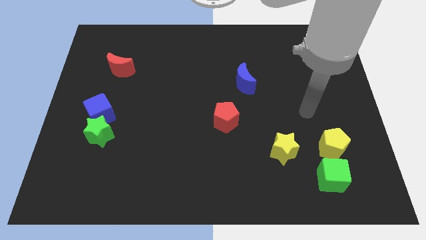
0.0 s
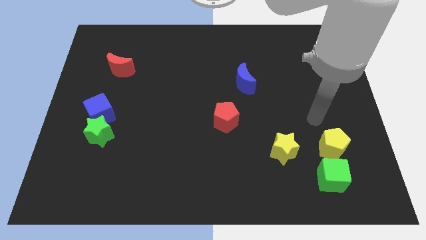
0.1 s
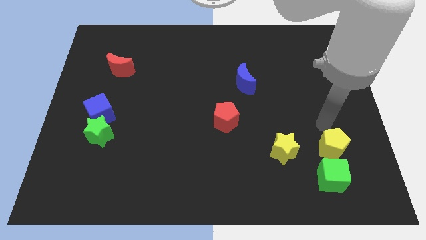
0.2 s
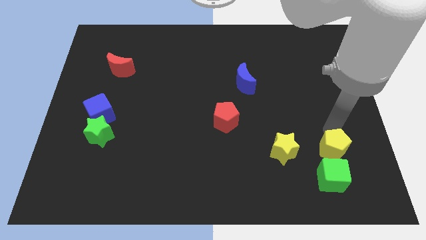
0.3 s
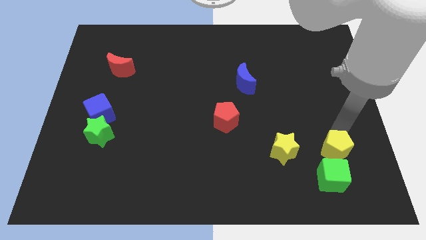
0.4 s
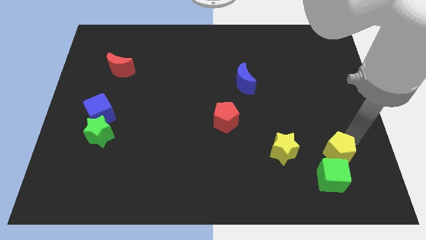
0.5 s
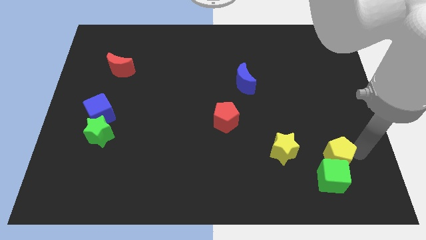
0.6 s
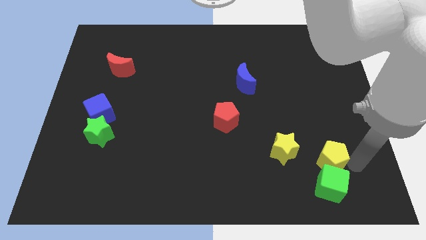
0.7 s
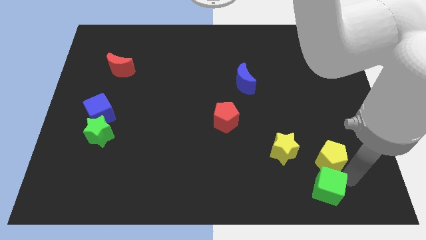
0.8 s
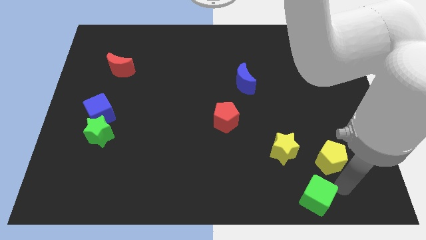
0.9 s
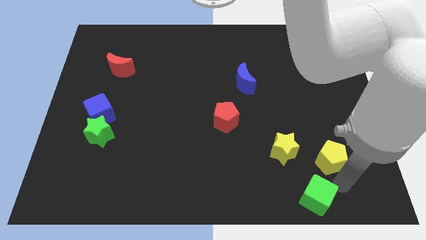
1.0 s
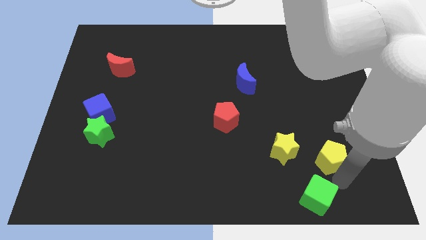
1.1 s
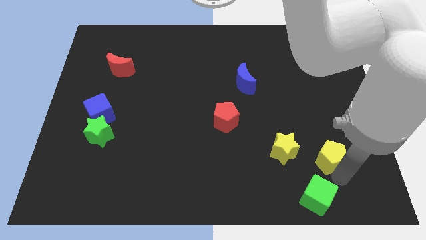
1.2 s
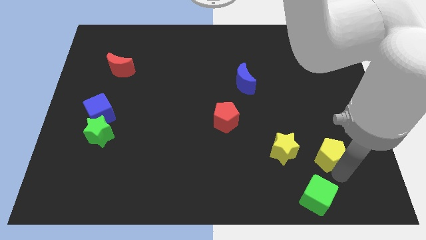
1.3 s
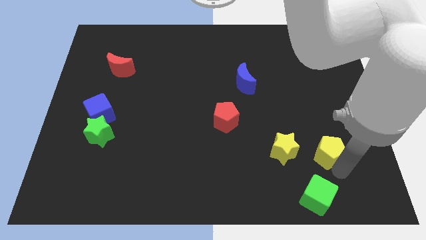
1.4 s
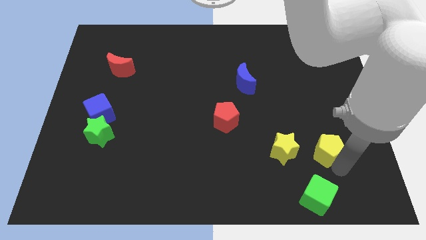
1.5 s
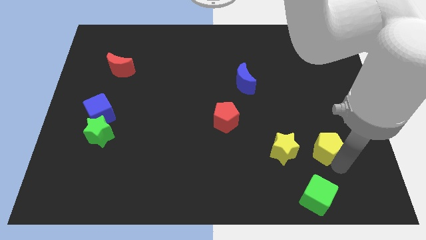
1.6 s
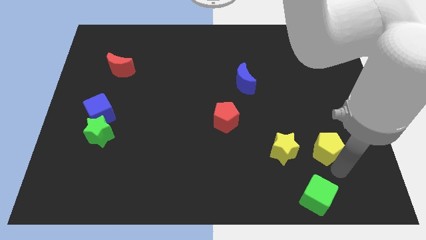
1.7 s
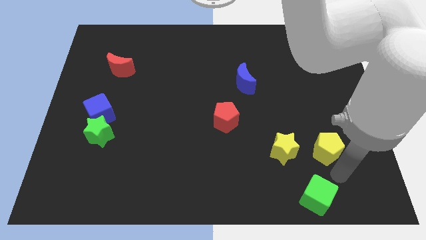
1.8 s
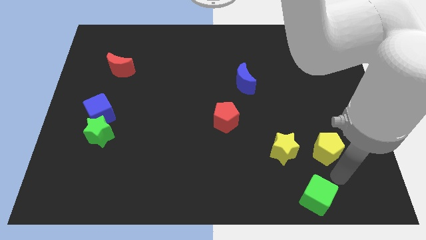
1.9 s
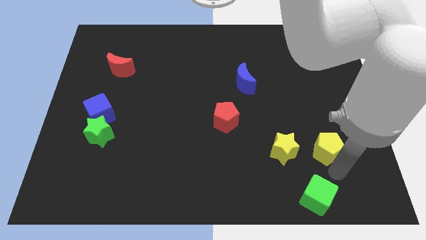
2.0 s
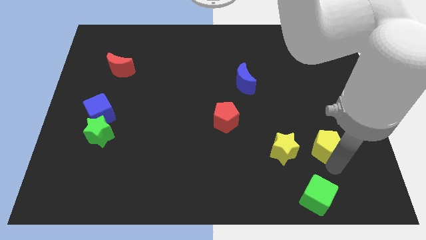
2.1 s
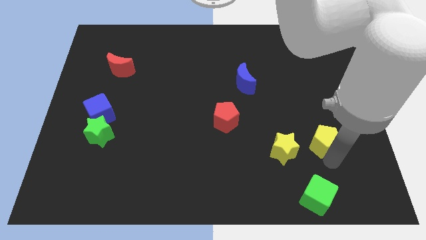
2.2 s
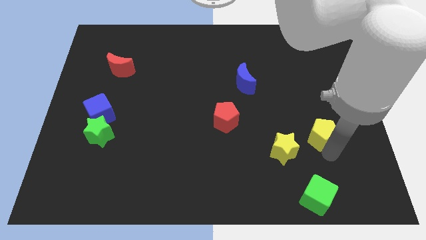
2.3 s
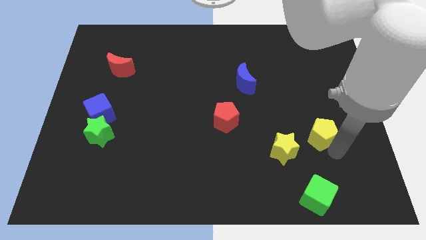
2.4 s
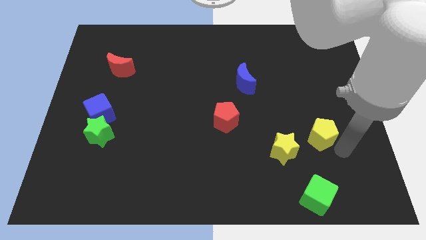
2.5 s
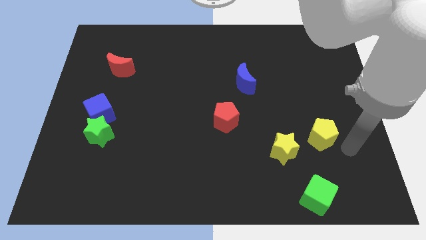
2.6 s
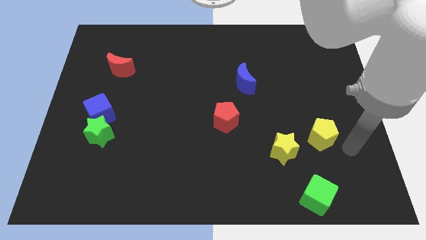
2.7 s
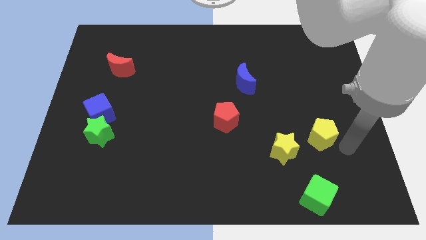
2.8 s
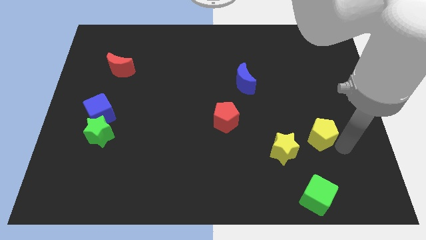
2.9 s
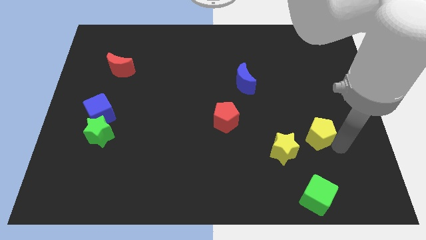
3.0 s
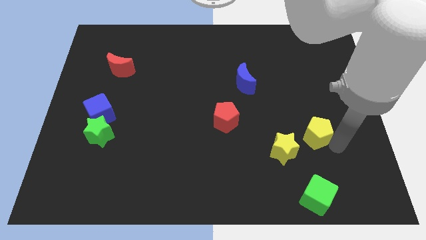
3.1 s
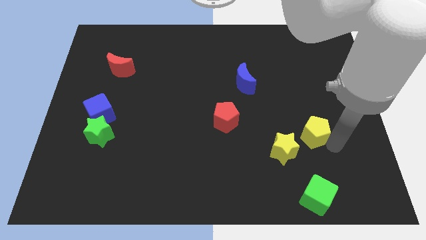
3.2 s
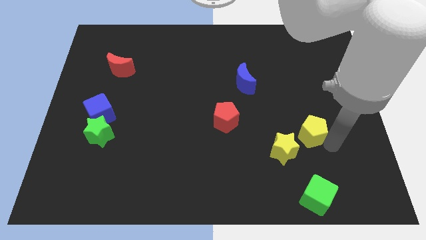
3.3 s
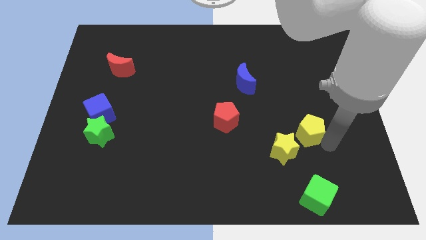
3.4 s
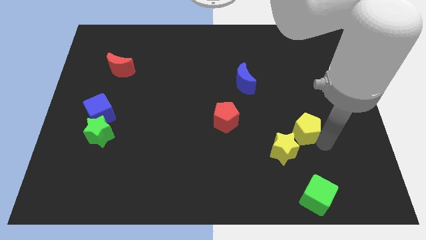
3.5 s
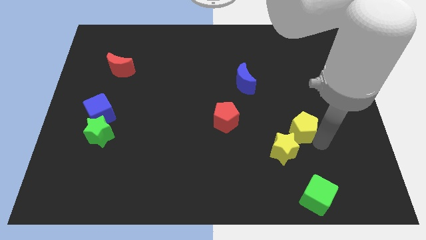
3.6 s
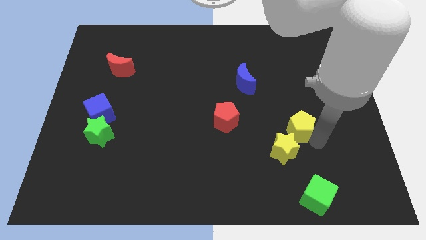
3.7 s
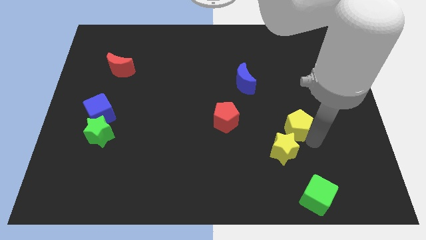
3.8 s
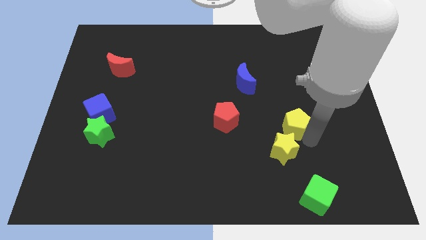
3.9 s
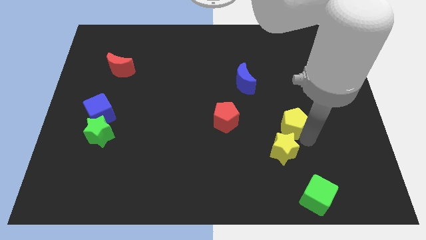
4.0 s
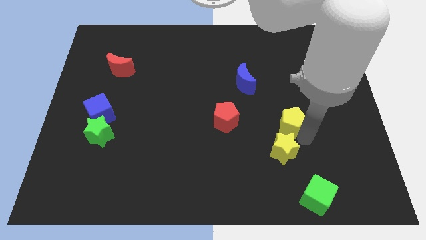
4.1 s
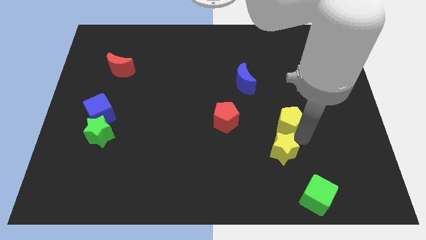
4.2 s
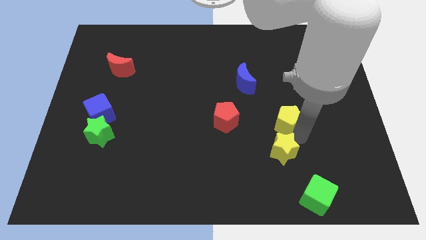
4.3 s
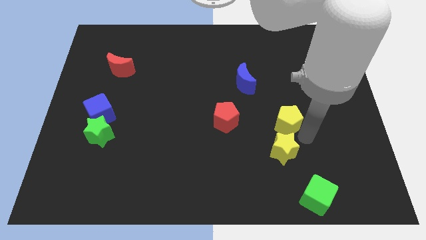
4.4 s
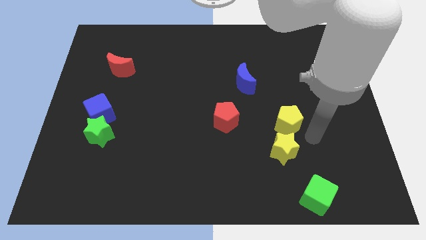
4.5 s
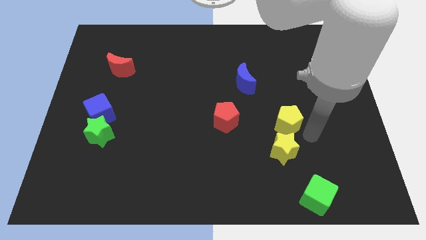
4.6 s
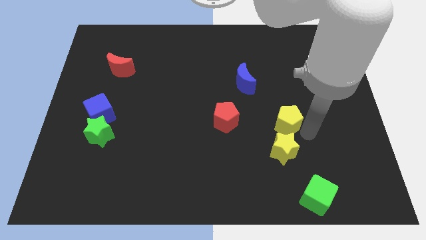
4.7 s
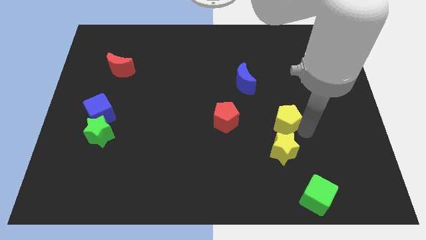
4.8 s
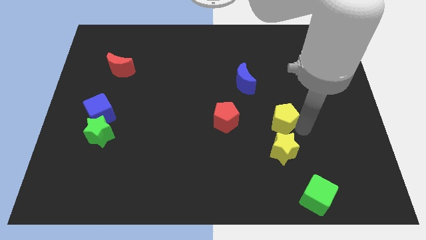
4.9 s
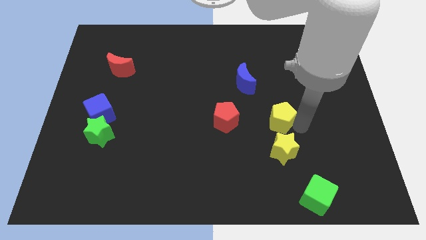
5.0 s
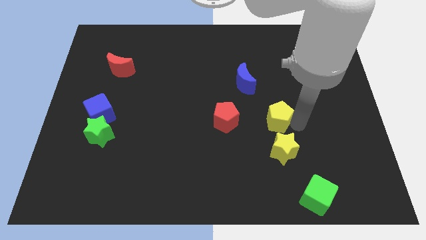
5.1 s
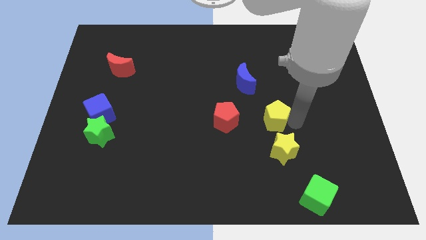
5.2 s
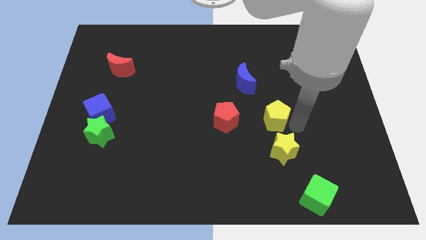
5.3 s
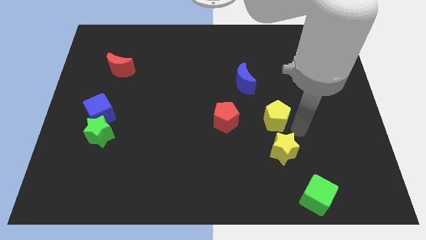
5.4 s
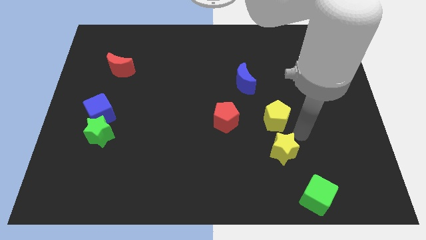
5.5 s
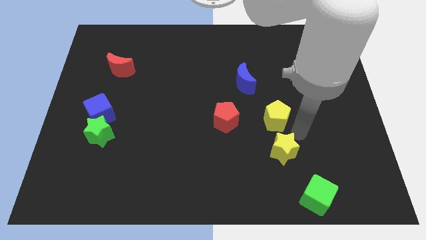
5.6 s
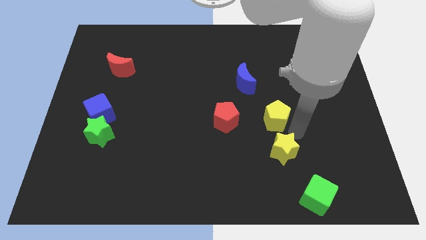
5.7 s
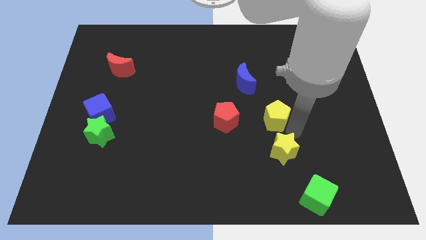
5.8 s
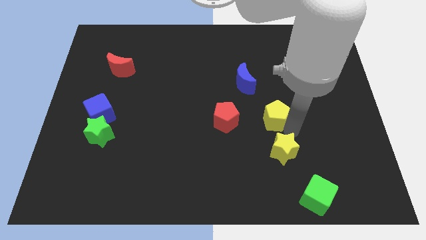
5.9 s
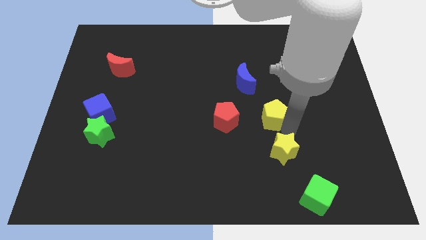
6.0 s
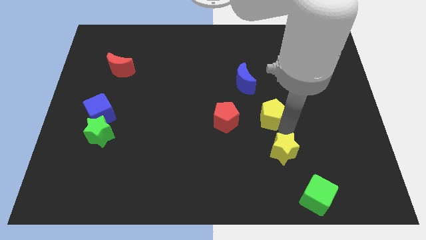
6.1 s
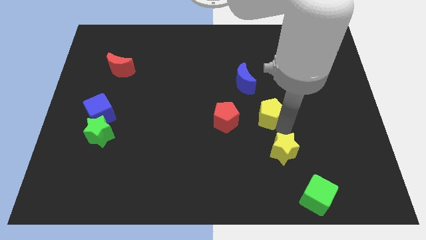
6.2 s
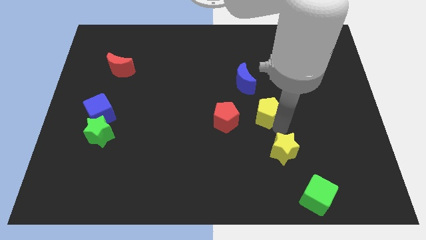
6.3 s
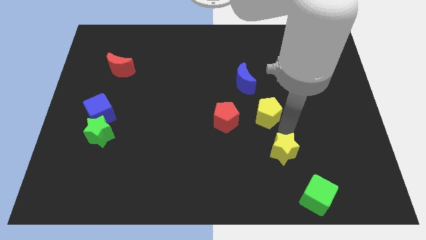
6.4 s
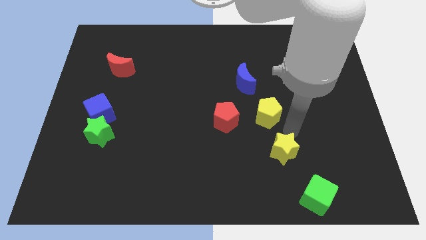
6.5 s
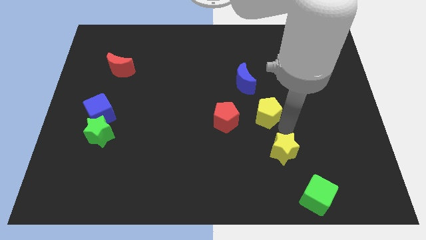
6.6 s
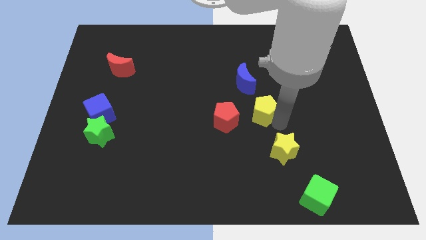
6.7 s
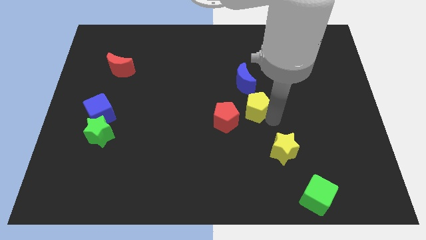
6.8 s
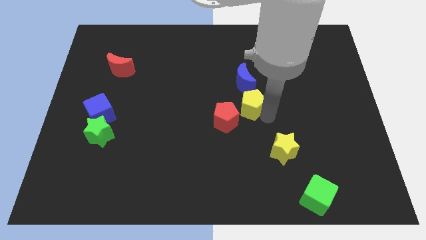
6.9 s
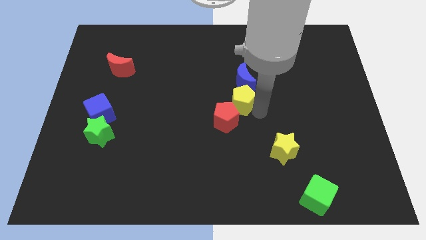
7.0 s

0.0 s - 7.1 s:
push the yellow pentagon diagonally up and left

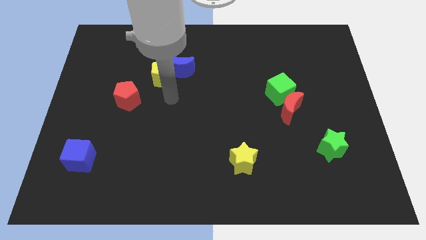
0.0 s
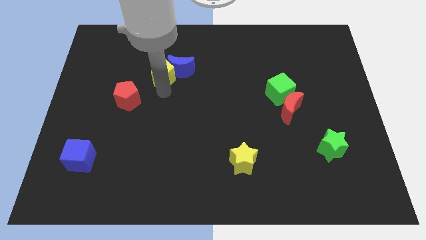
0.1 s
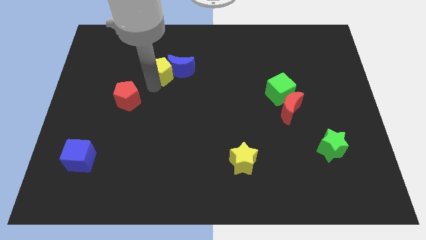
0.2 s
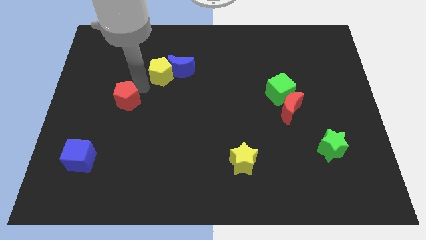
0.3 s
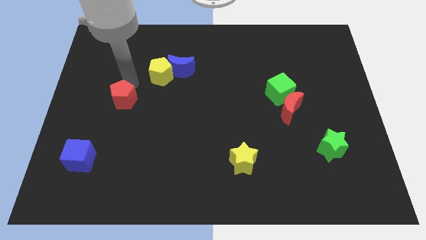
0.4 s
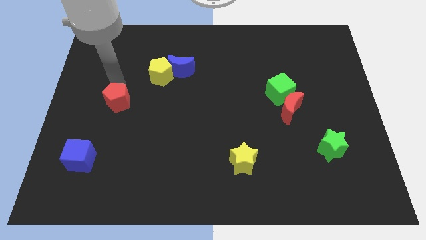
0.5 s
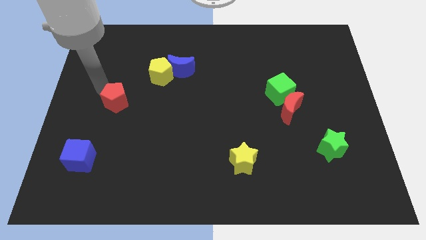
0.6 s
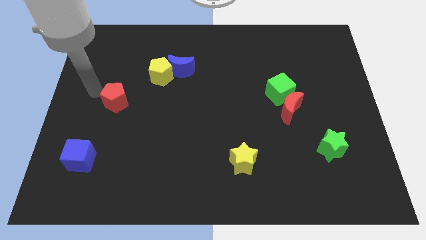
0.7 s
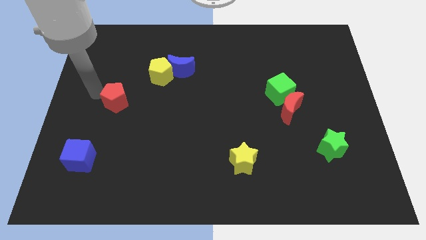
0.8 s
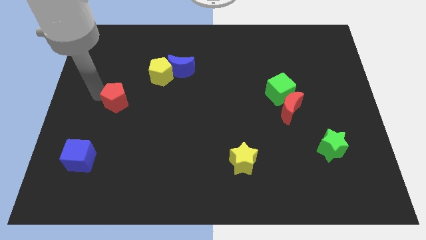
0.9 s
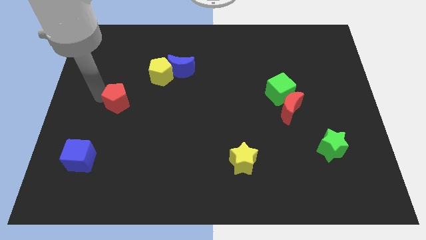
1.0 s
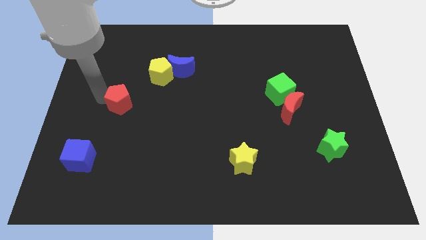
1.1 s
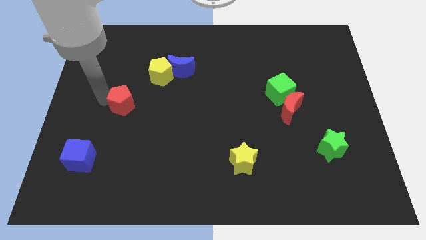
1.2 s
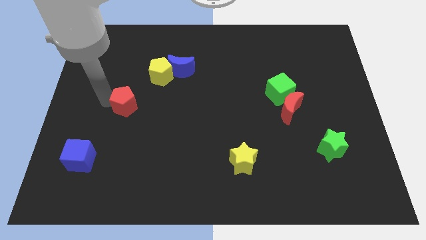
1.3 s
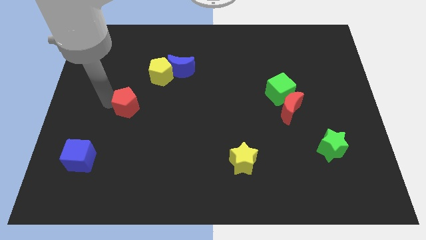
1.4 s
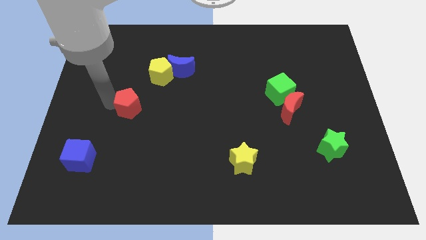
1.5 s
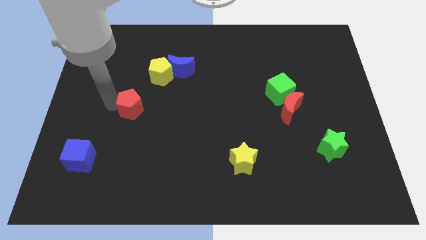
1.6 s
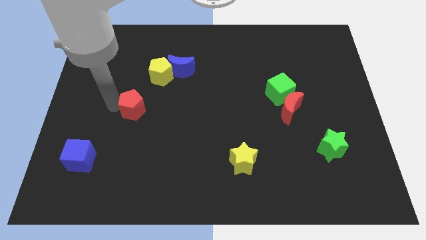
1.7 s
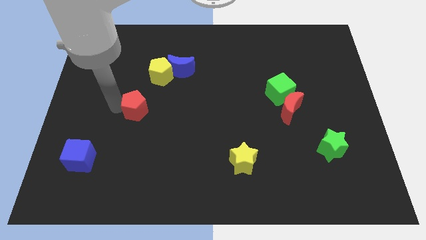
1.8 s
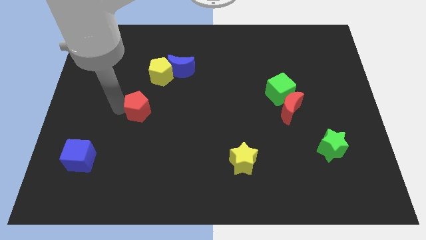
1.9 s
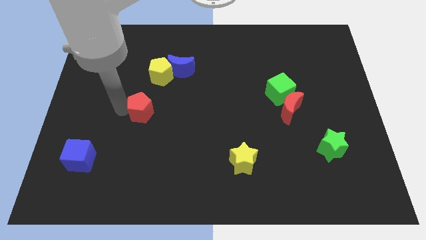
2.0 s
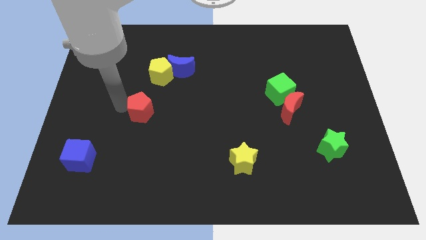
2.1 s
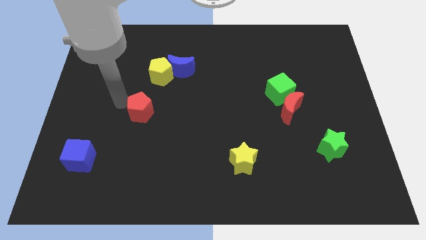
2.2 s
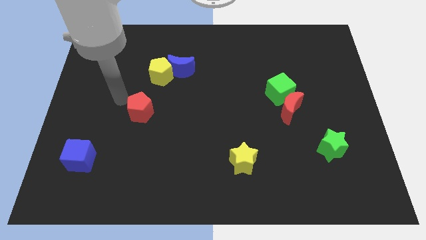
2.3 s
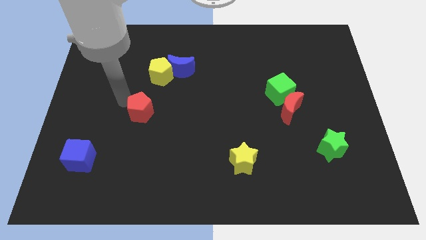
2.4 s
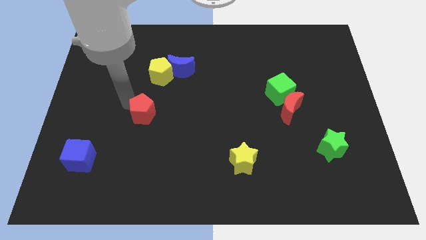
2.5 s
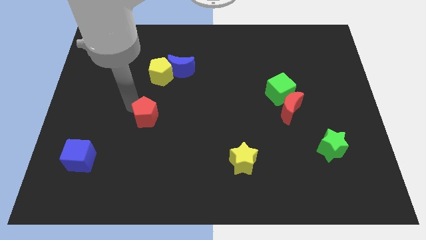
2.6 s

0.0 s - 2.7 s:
slightly slide the red pentagon diagonally down and right
